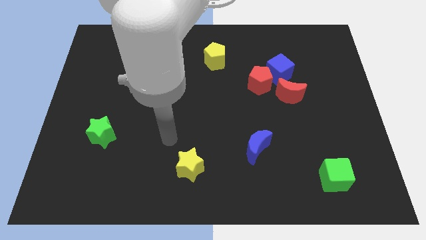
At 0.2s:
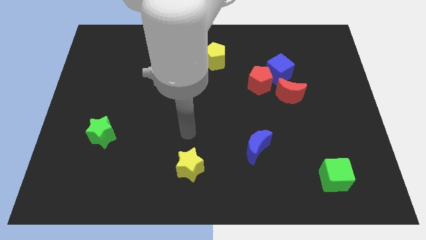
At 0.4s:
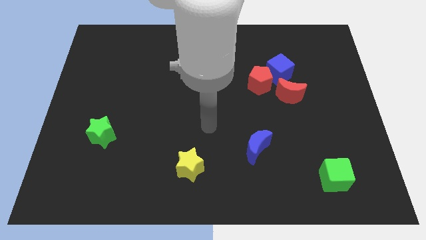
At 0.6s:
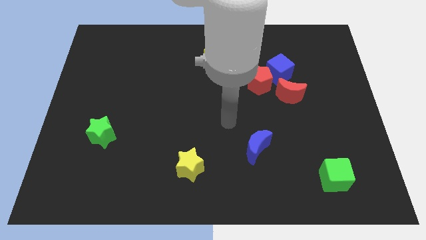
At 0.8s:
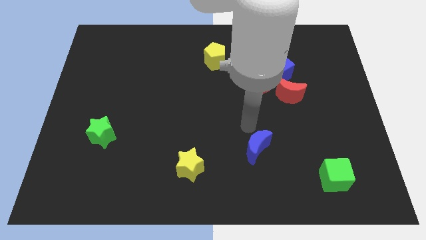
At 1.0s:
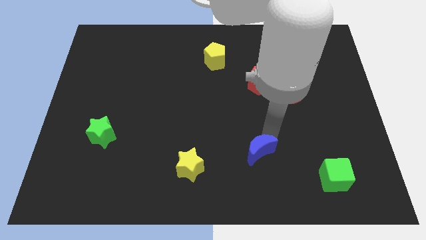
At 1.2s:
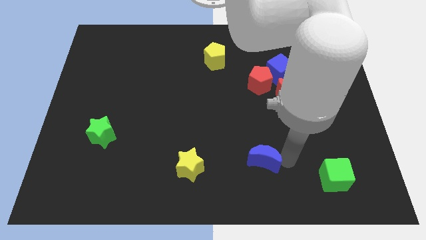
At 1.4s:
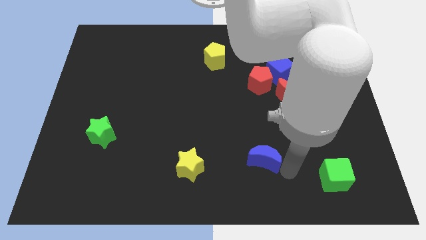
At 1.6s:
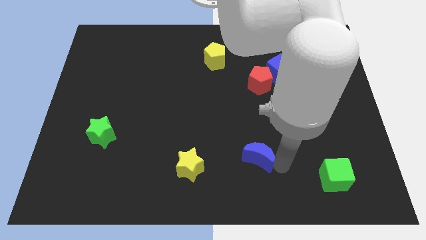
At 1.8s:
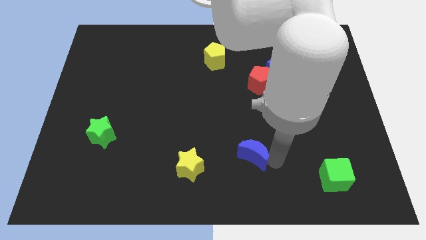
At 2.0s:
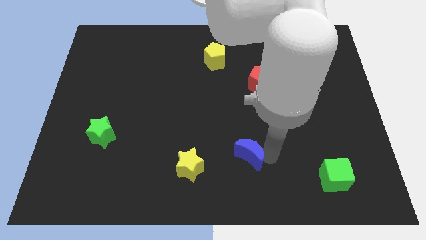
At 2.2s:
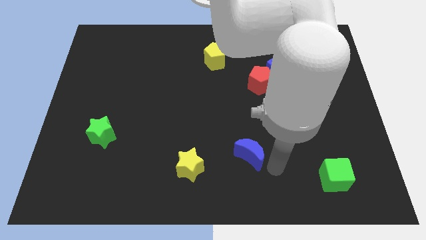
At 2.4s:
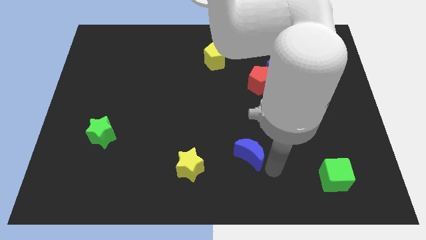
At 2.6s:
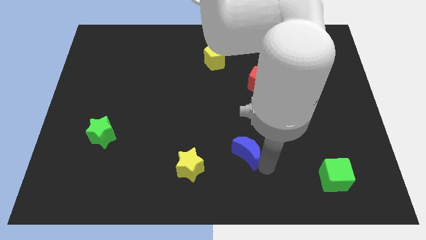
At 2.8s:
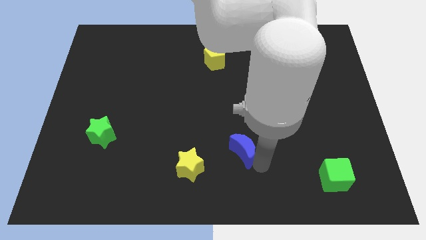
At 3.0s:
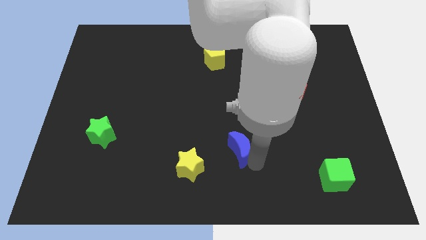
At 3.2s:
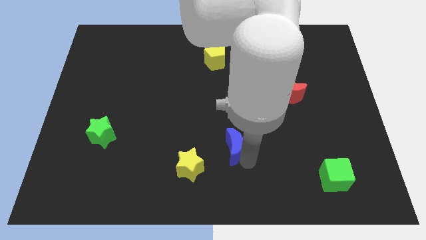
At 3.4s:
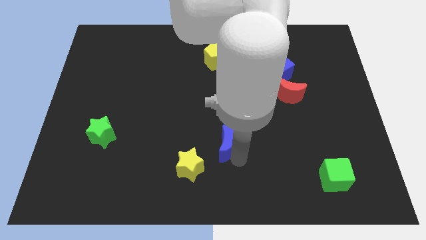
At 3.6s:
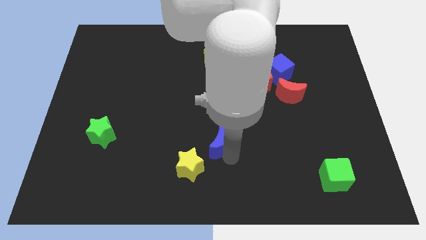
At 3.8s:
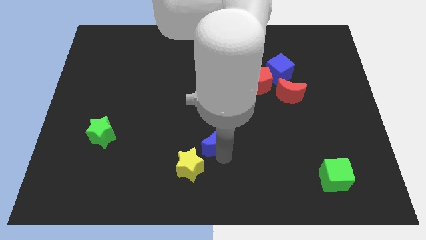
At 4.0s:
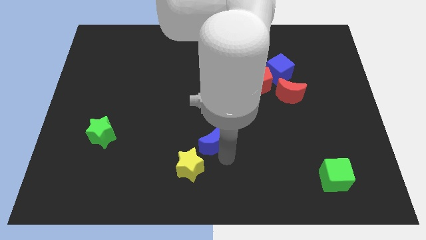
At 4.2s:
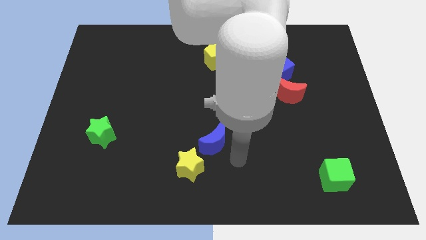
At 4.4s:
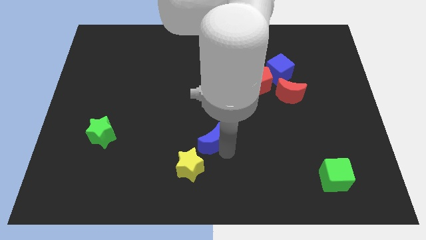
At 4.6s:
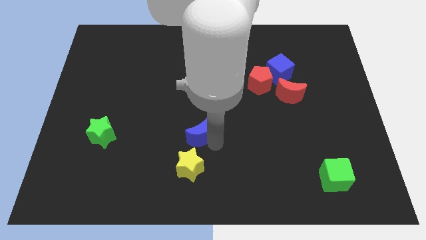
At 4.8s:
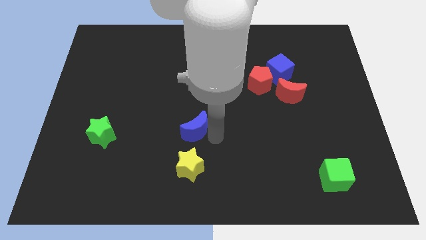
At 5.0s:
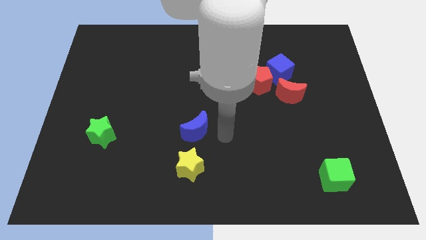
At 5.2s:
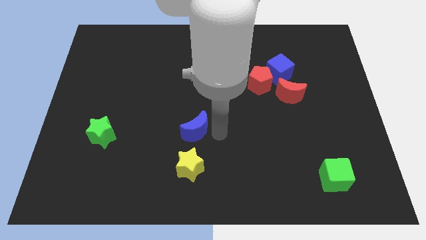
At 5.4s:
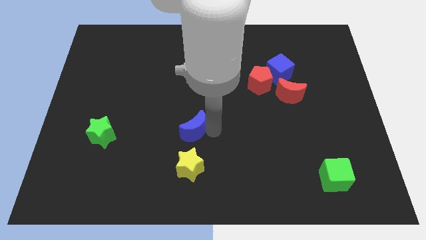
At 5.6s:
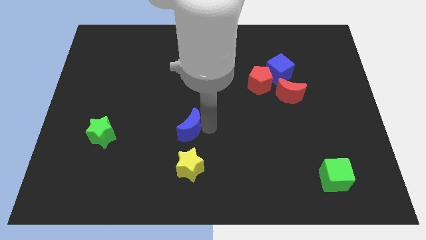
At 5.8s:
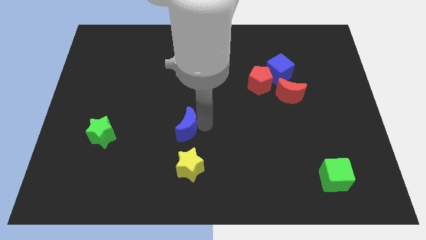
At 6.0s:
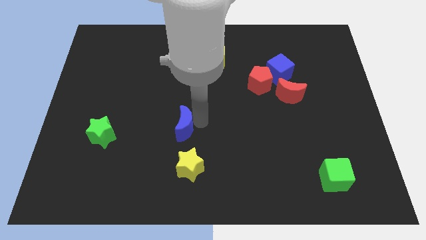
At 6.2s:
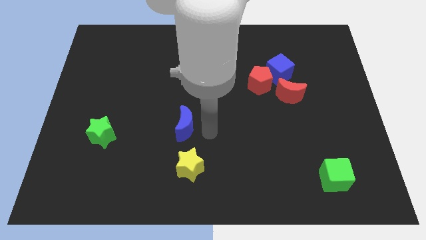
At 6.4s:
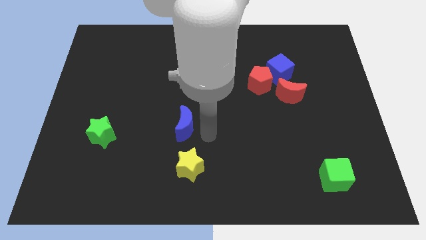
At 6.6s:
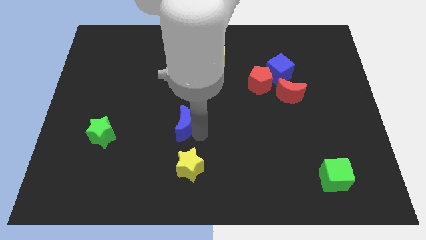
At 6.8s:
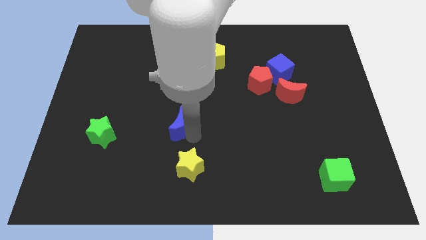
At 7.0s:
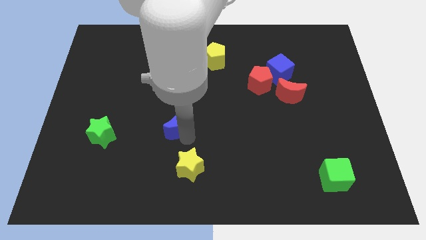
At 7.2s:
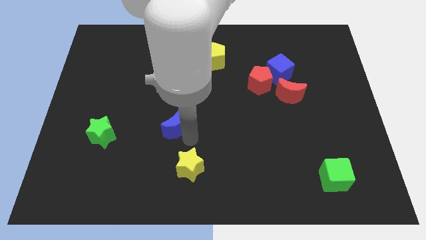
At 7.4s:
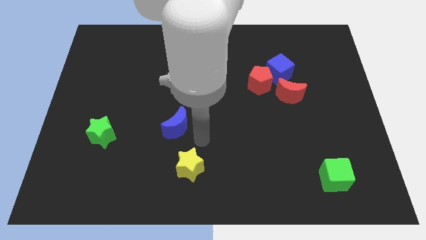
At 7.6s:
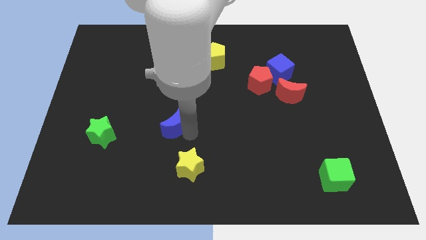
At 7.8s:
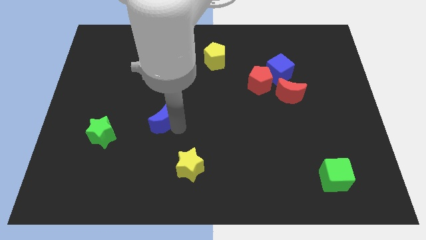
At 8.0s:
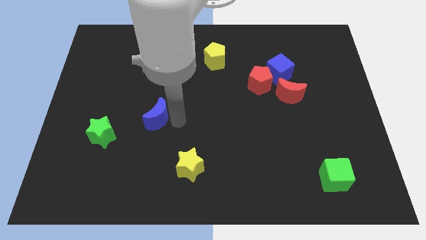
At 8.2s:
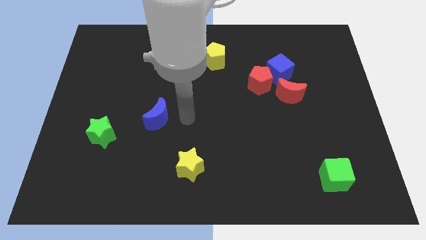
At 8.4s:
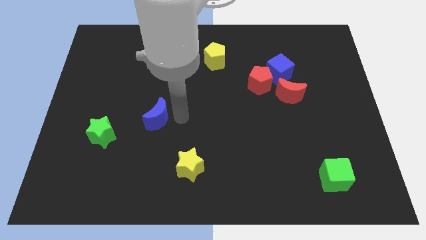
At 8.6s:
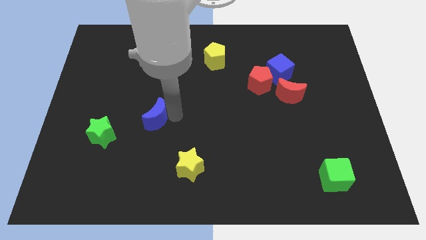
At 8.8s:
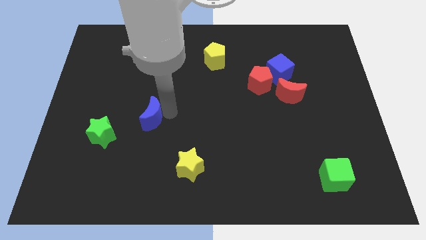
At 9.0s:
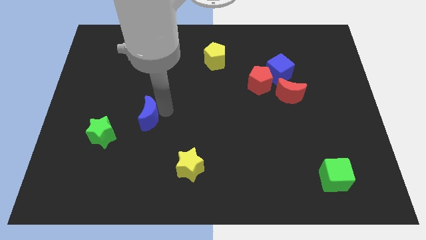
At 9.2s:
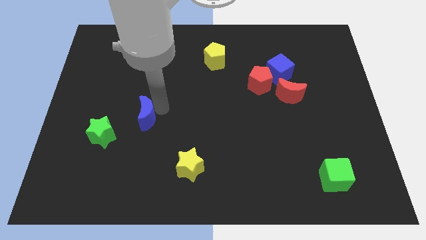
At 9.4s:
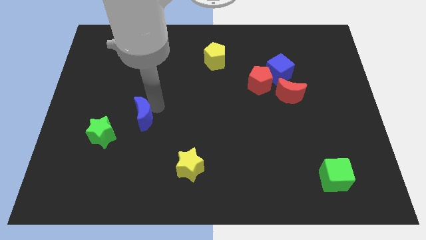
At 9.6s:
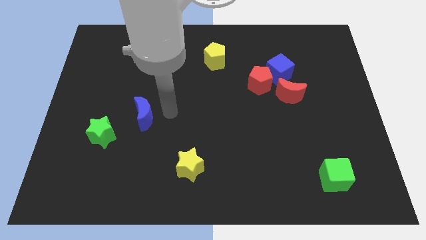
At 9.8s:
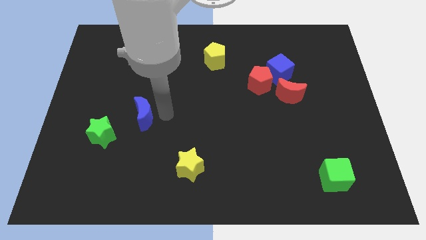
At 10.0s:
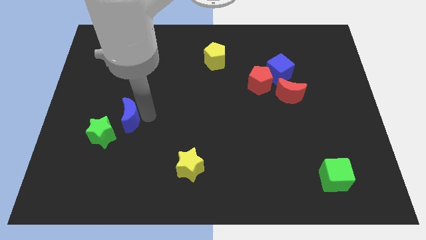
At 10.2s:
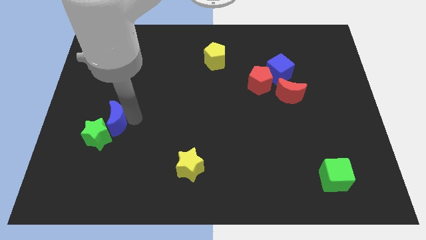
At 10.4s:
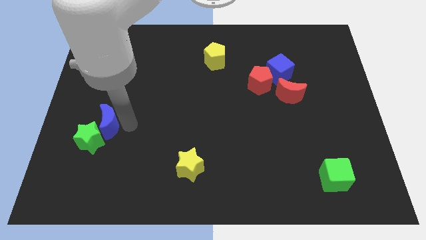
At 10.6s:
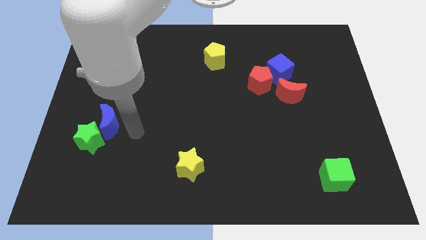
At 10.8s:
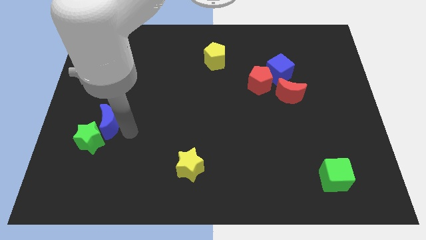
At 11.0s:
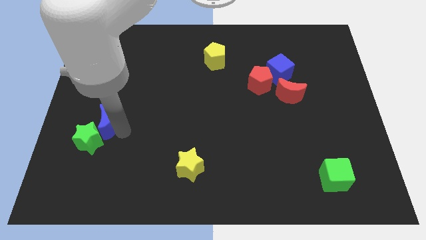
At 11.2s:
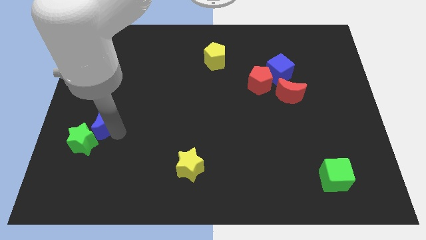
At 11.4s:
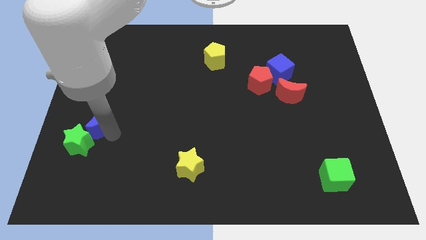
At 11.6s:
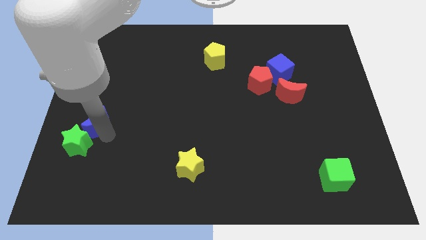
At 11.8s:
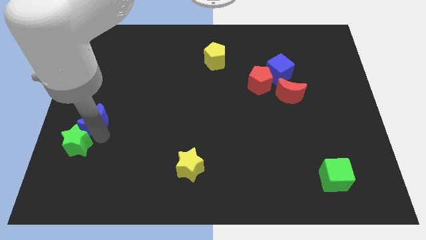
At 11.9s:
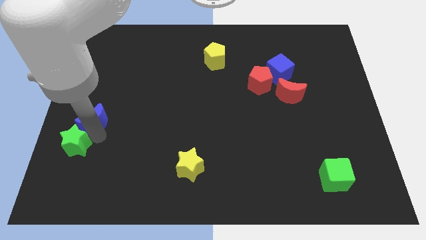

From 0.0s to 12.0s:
move the blue moon to the left side
